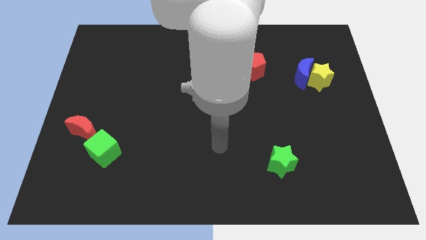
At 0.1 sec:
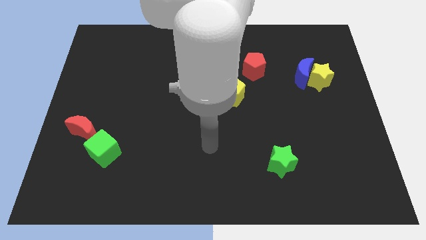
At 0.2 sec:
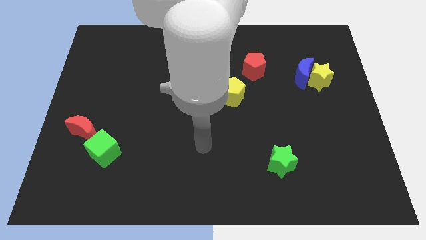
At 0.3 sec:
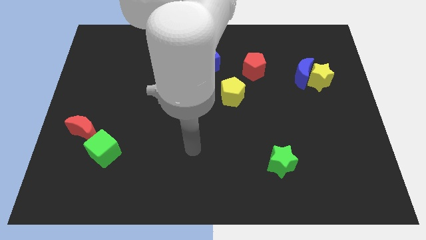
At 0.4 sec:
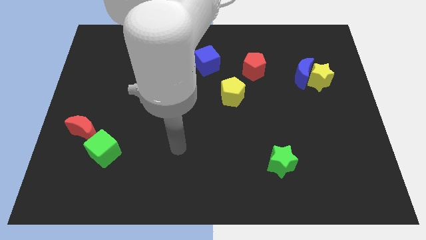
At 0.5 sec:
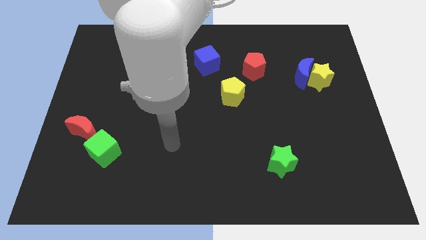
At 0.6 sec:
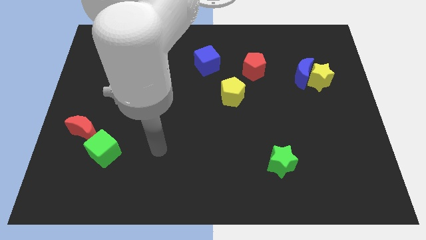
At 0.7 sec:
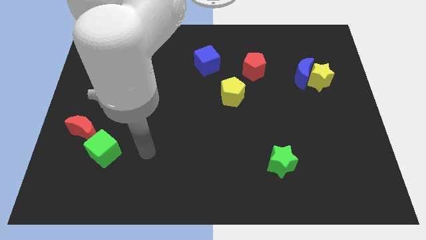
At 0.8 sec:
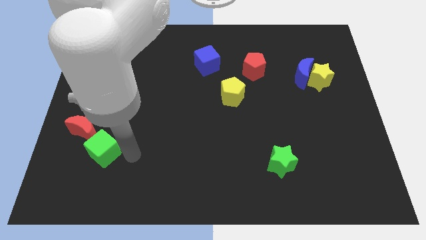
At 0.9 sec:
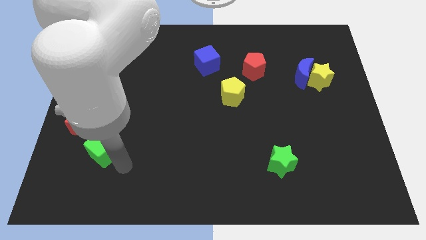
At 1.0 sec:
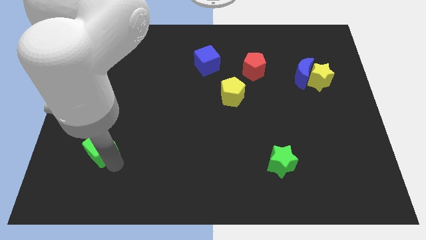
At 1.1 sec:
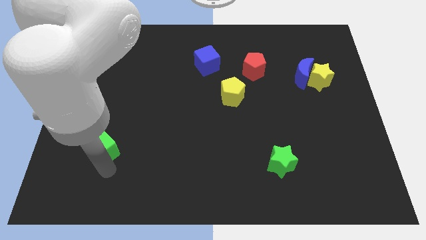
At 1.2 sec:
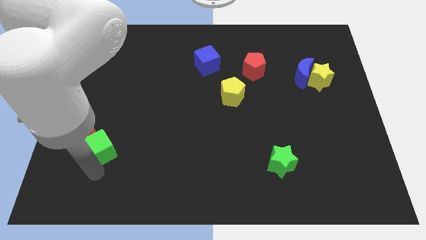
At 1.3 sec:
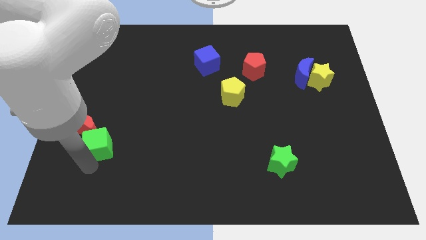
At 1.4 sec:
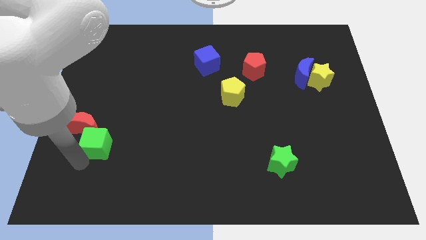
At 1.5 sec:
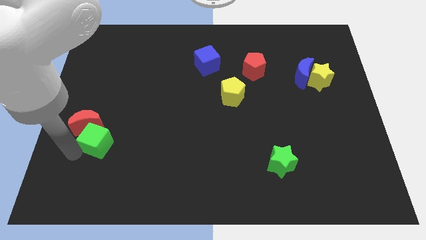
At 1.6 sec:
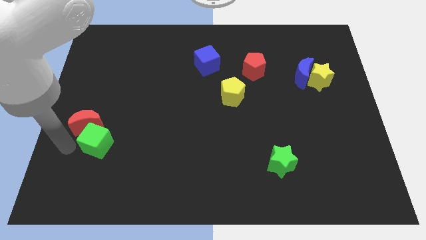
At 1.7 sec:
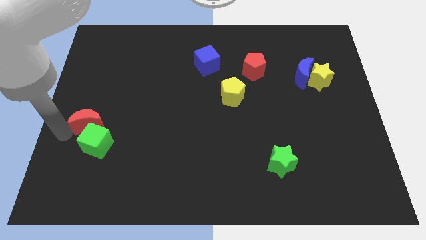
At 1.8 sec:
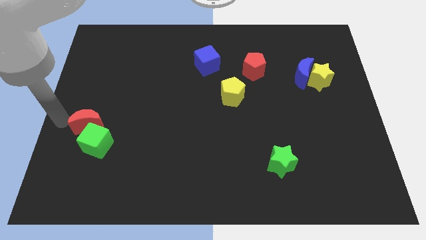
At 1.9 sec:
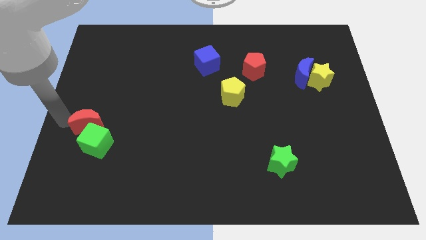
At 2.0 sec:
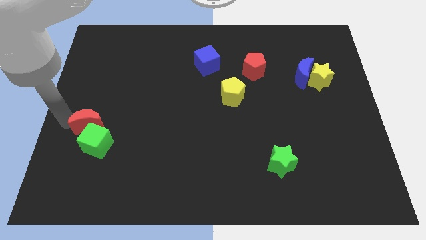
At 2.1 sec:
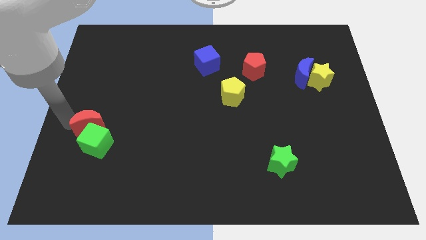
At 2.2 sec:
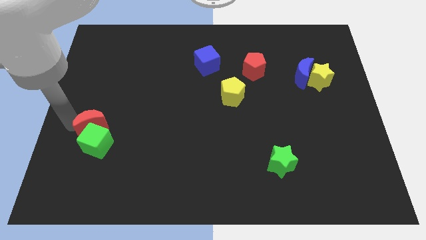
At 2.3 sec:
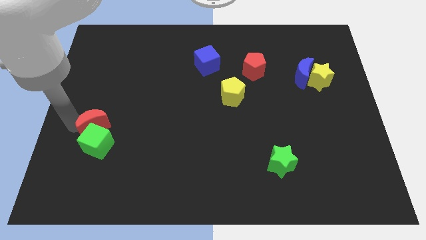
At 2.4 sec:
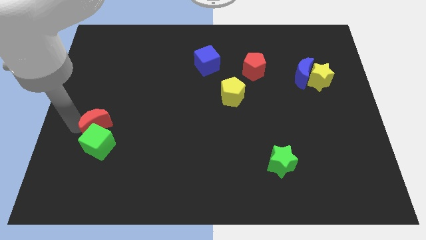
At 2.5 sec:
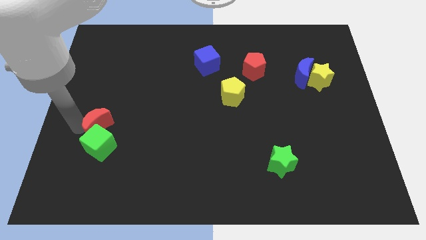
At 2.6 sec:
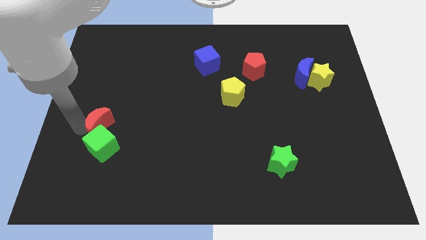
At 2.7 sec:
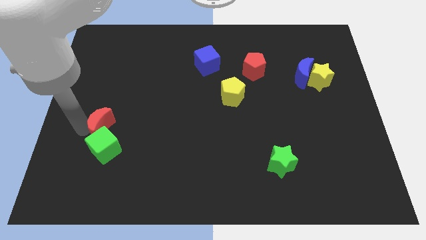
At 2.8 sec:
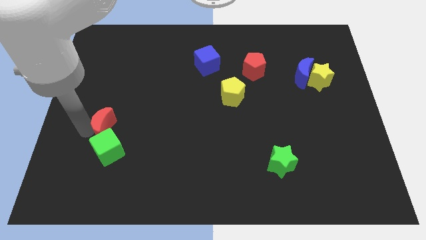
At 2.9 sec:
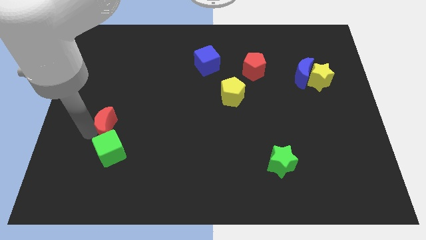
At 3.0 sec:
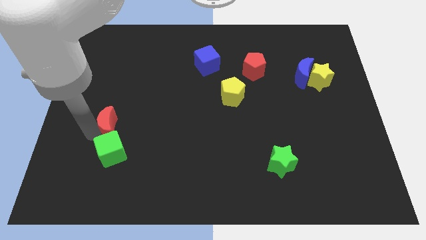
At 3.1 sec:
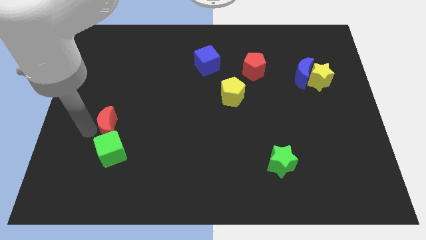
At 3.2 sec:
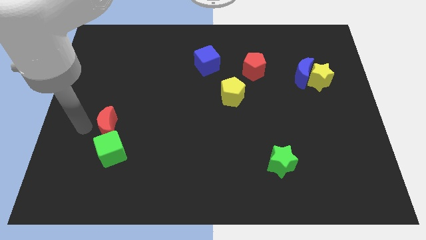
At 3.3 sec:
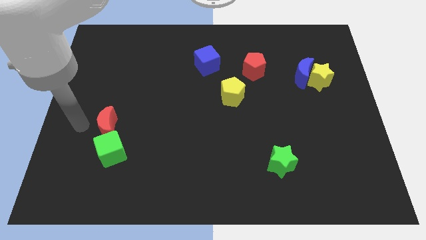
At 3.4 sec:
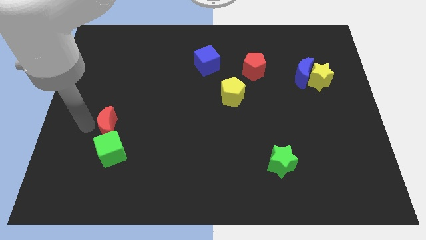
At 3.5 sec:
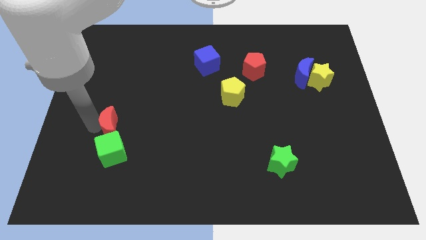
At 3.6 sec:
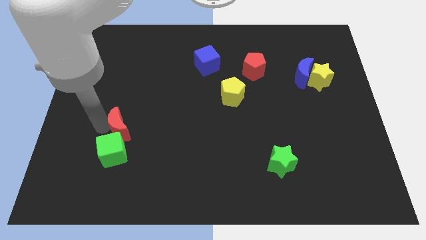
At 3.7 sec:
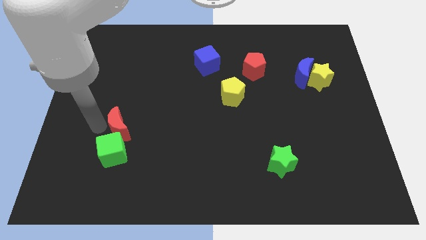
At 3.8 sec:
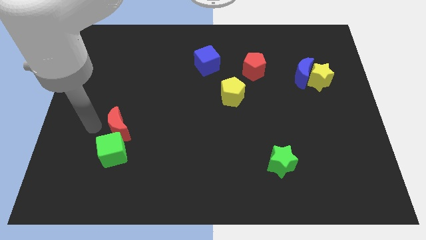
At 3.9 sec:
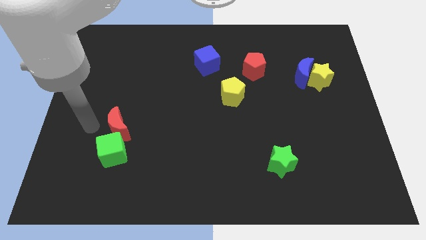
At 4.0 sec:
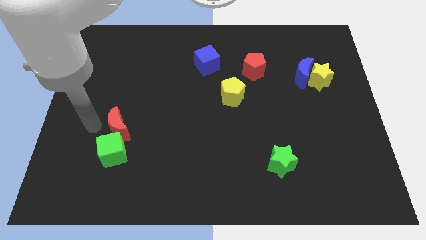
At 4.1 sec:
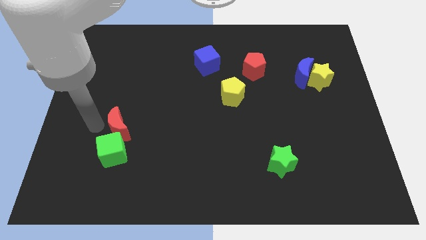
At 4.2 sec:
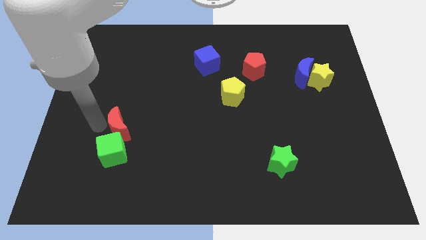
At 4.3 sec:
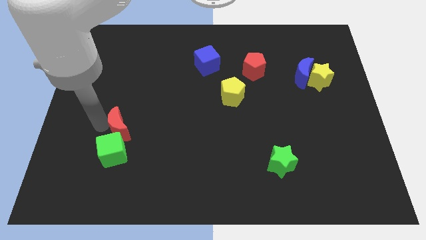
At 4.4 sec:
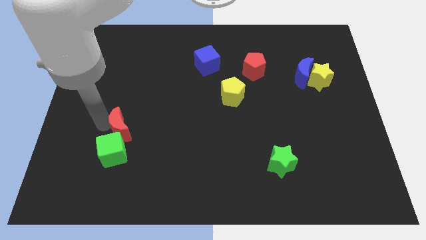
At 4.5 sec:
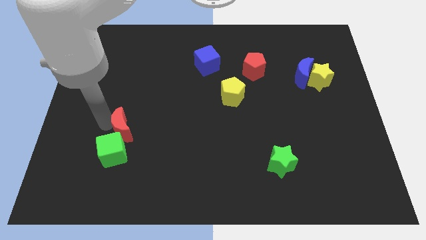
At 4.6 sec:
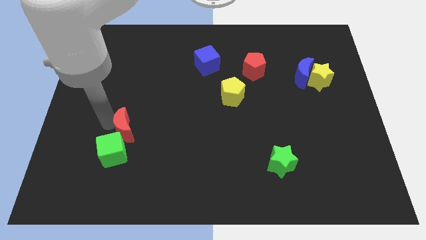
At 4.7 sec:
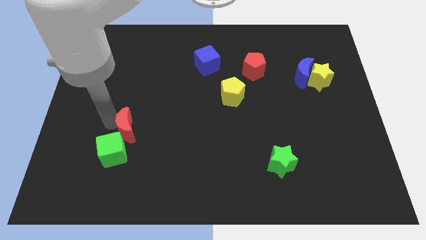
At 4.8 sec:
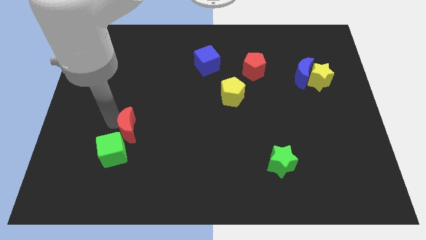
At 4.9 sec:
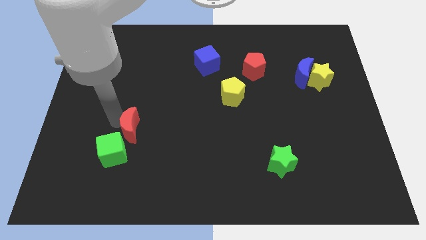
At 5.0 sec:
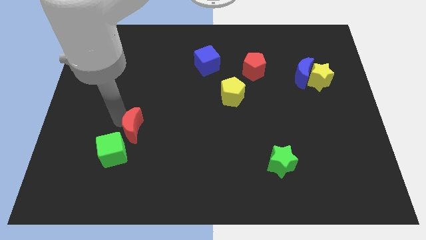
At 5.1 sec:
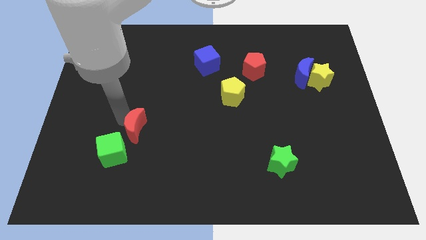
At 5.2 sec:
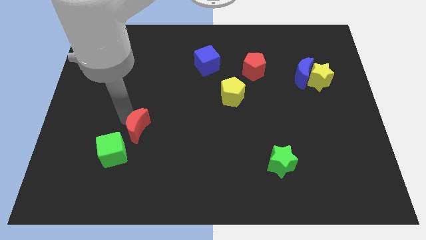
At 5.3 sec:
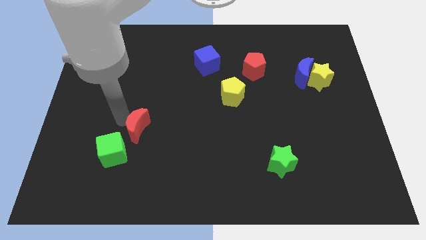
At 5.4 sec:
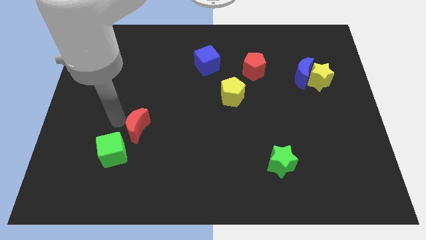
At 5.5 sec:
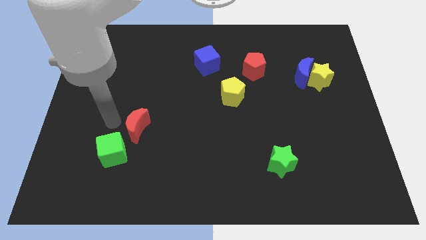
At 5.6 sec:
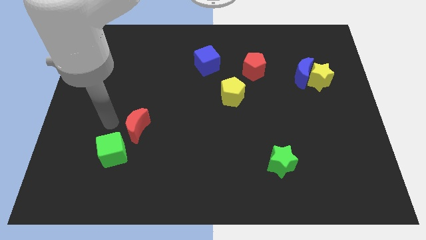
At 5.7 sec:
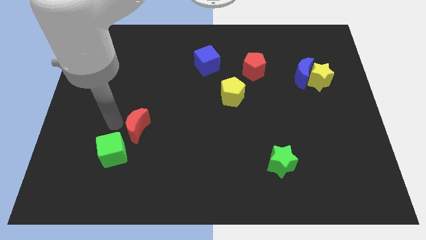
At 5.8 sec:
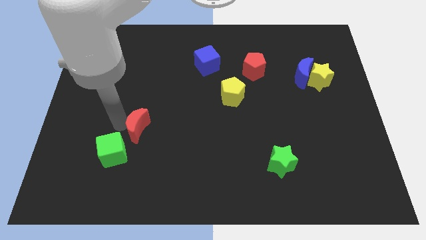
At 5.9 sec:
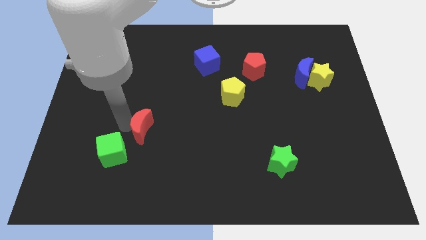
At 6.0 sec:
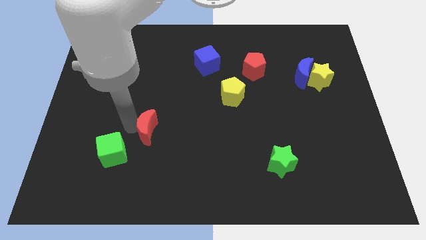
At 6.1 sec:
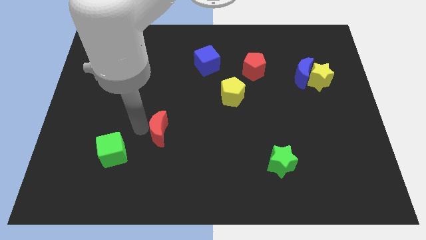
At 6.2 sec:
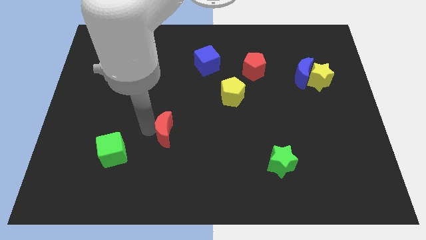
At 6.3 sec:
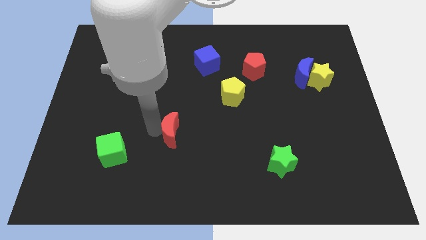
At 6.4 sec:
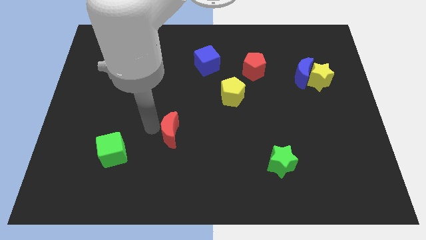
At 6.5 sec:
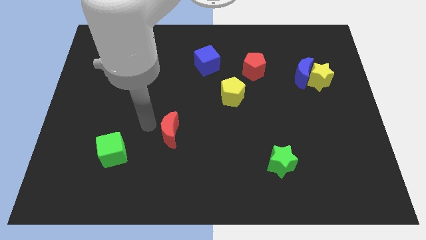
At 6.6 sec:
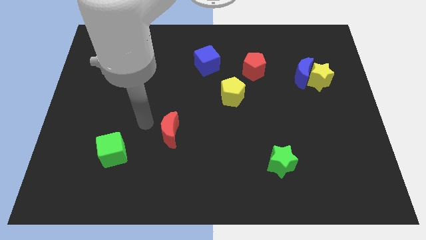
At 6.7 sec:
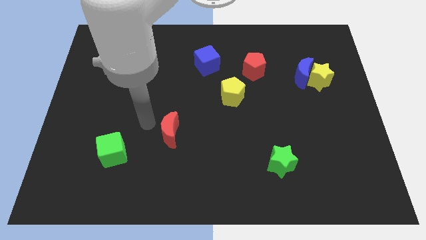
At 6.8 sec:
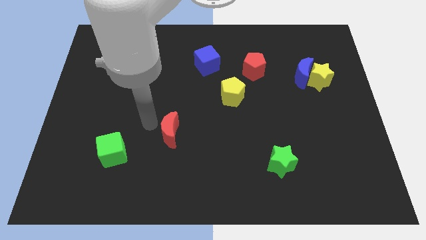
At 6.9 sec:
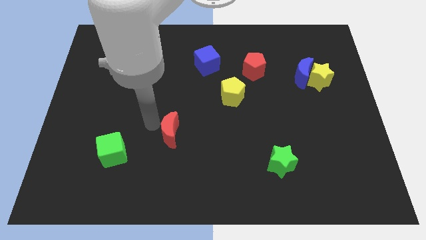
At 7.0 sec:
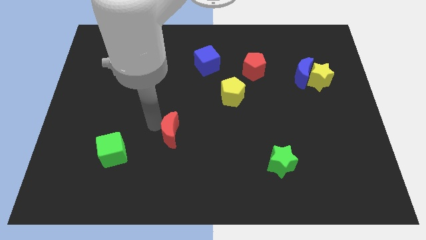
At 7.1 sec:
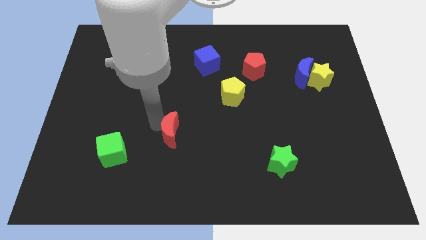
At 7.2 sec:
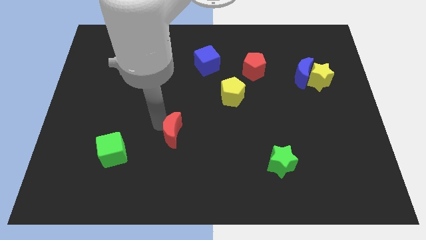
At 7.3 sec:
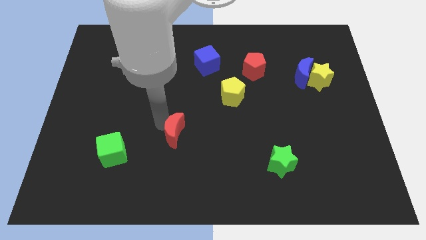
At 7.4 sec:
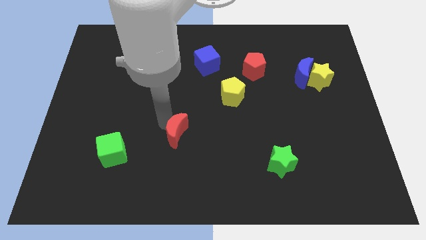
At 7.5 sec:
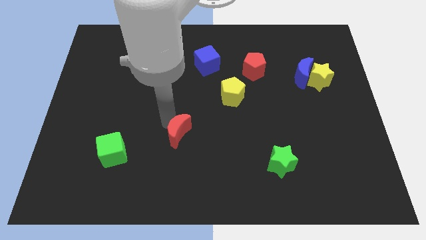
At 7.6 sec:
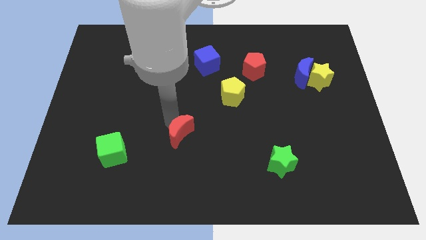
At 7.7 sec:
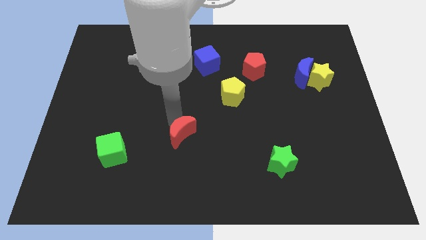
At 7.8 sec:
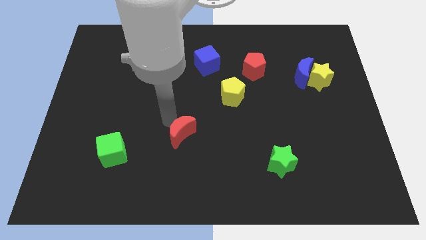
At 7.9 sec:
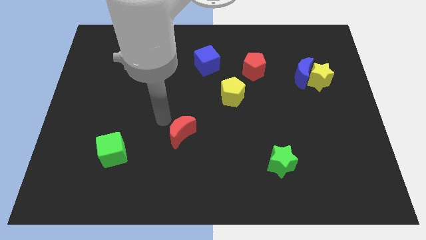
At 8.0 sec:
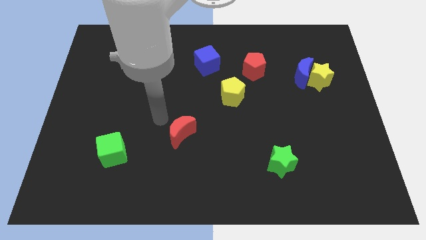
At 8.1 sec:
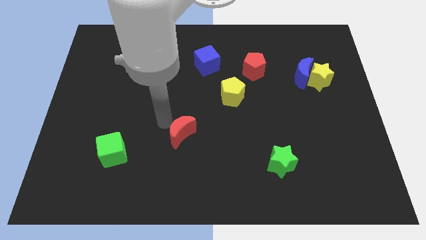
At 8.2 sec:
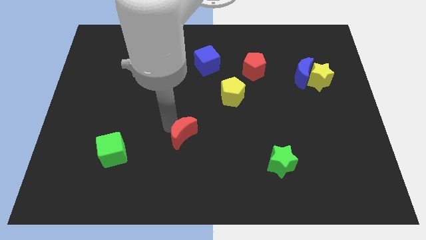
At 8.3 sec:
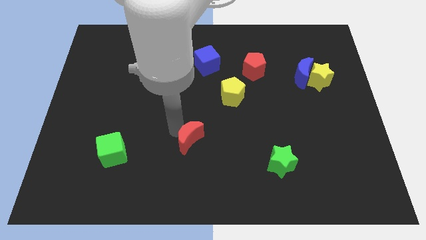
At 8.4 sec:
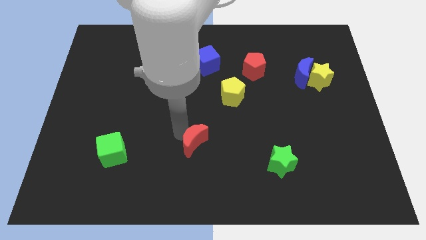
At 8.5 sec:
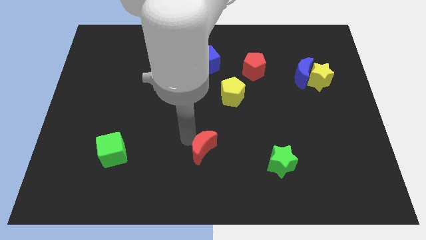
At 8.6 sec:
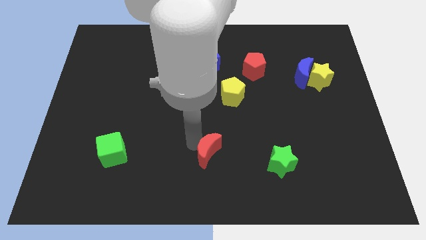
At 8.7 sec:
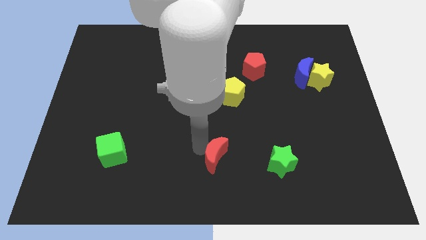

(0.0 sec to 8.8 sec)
move the red moon to the left side of the green star
